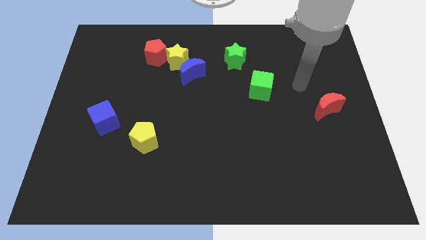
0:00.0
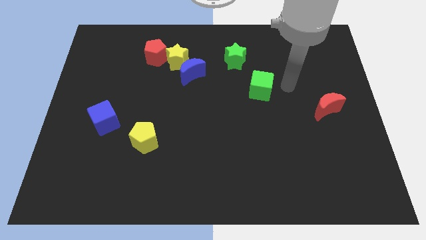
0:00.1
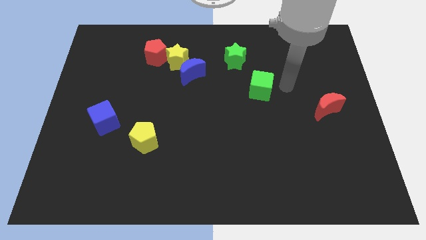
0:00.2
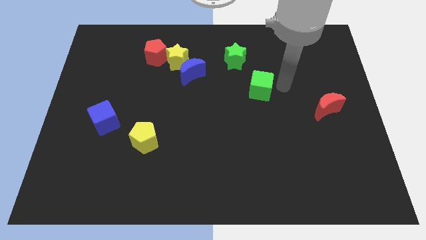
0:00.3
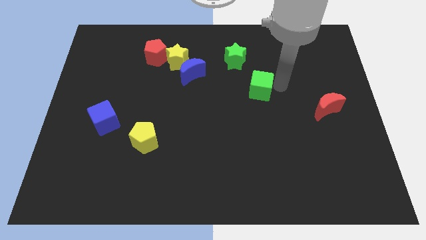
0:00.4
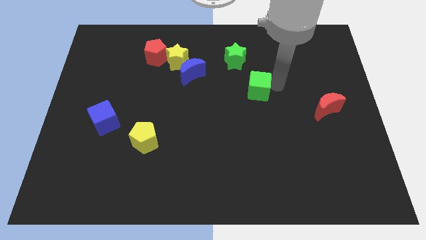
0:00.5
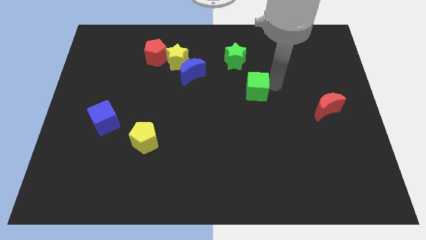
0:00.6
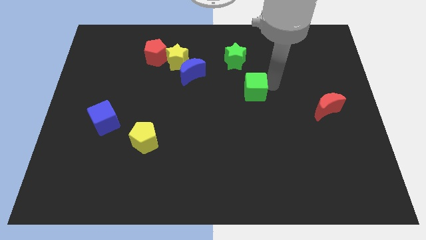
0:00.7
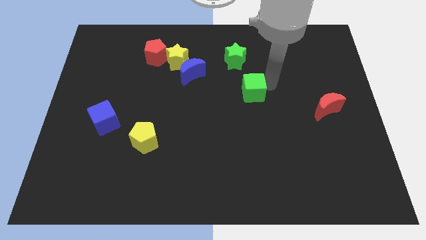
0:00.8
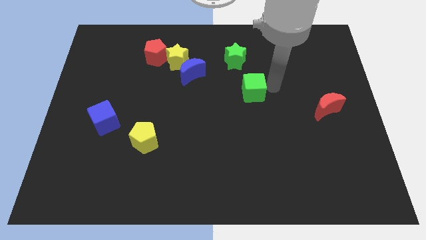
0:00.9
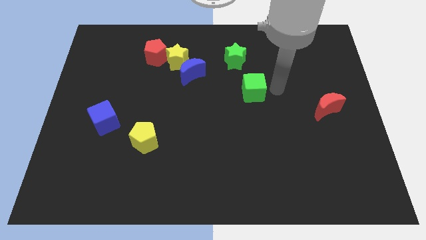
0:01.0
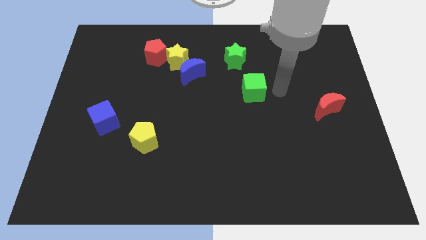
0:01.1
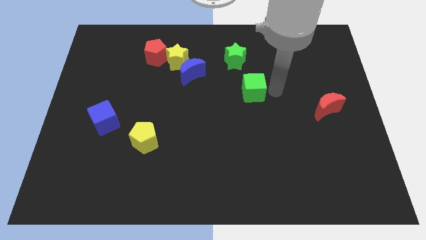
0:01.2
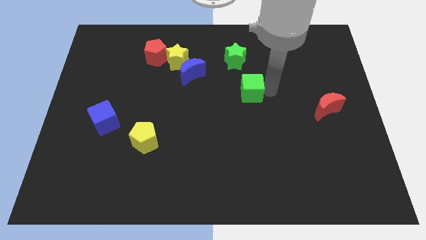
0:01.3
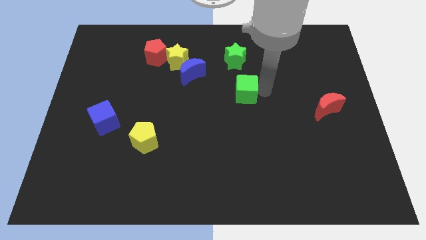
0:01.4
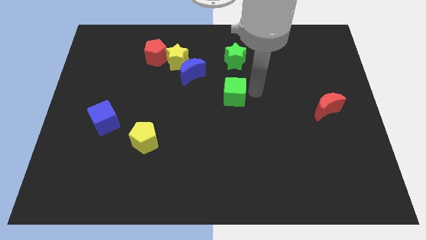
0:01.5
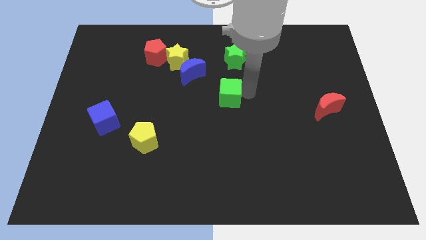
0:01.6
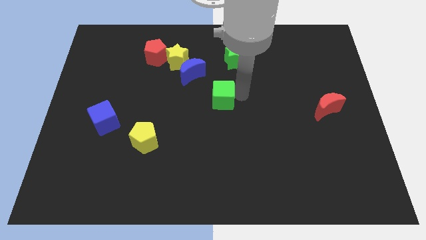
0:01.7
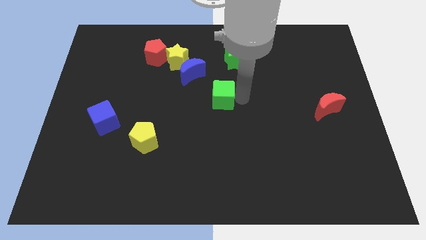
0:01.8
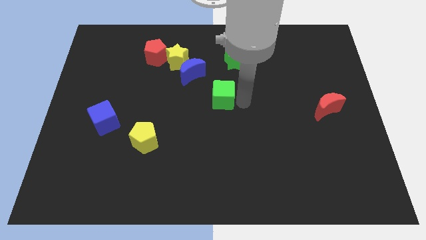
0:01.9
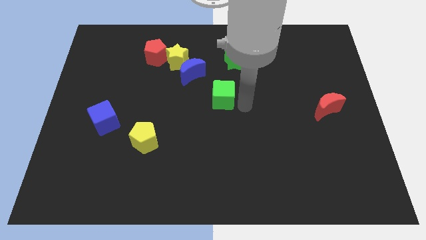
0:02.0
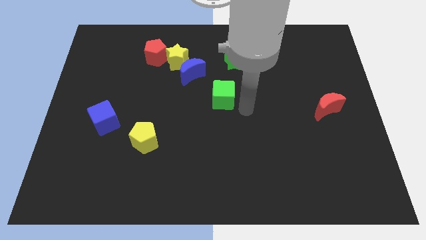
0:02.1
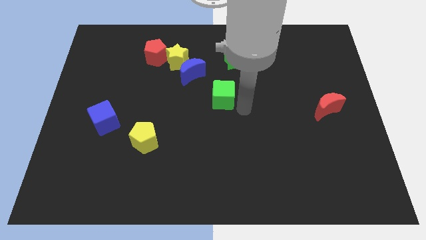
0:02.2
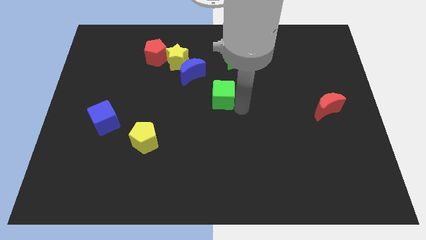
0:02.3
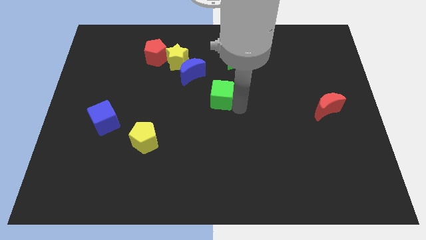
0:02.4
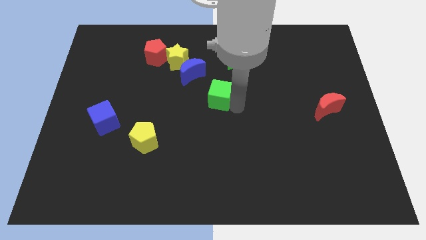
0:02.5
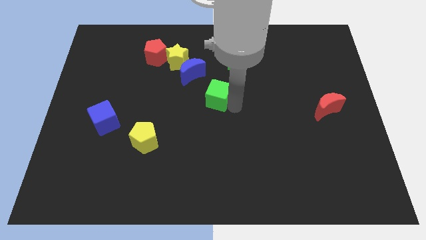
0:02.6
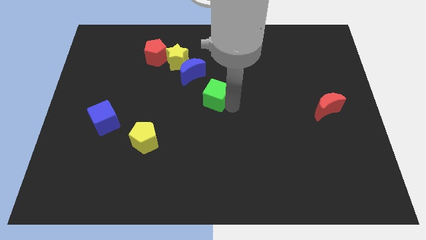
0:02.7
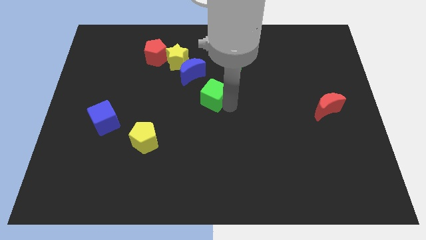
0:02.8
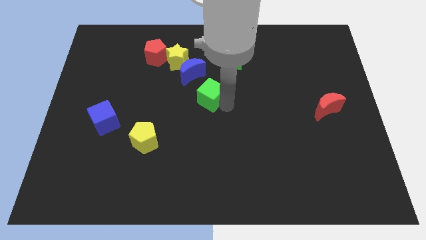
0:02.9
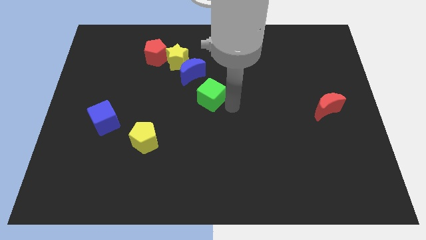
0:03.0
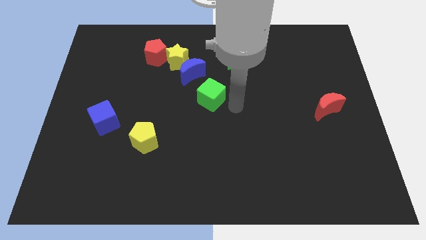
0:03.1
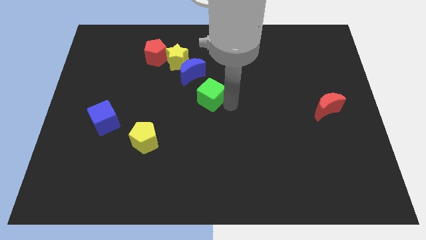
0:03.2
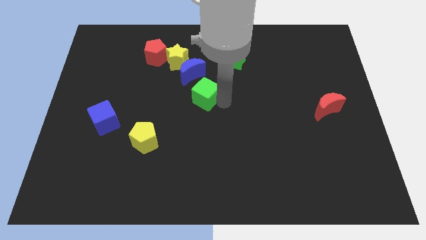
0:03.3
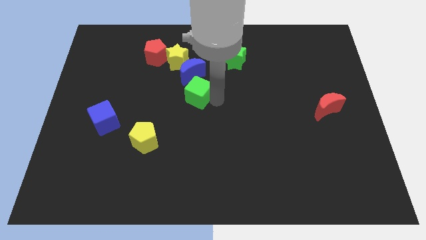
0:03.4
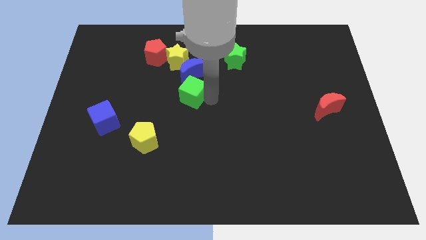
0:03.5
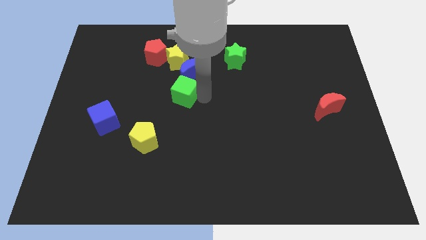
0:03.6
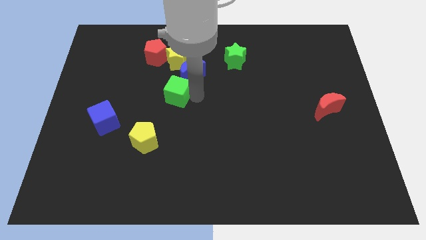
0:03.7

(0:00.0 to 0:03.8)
slide the green cube left

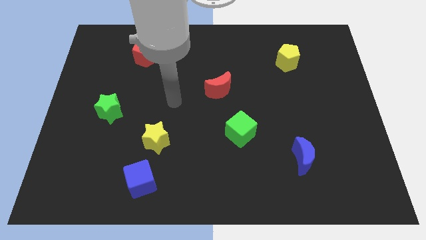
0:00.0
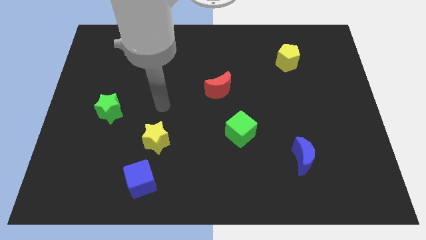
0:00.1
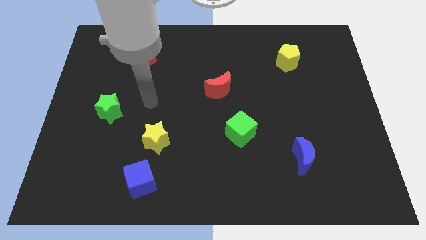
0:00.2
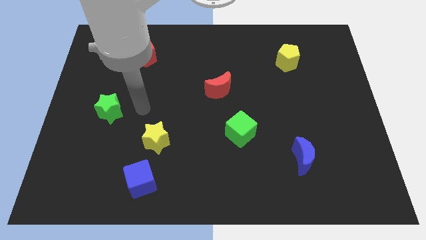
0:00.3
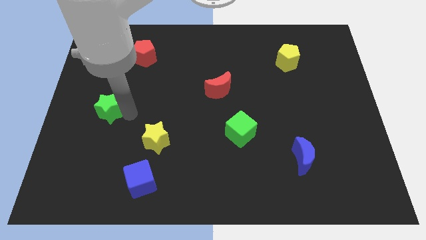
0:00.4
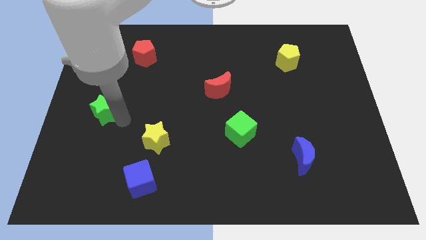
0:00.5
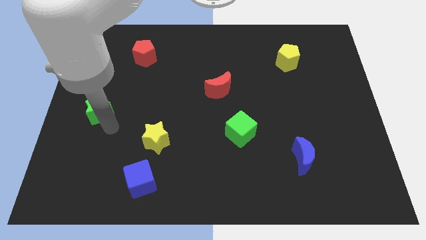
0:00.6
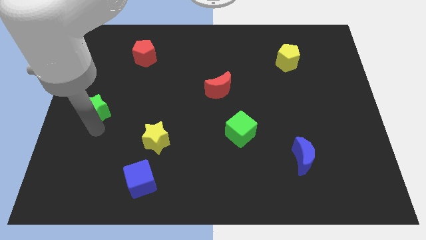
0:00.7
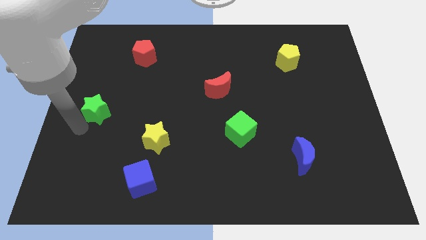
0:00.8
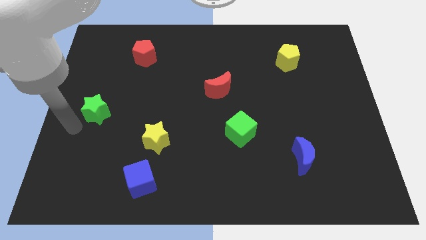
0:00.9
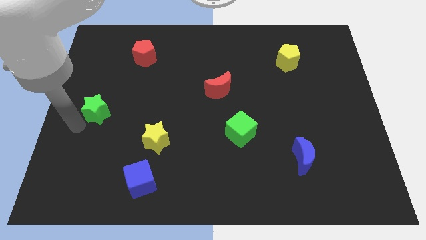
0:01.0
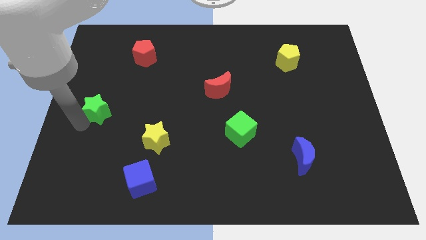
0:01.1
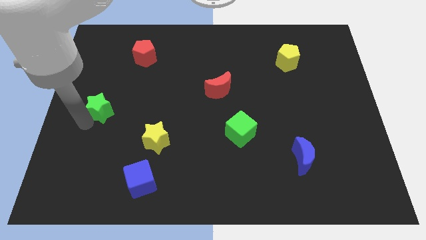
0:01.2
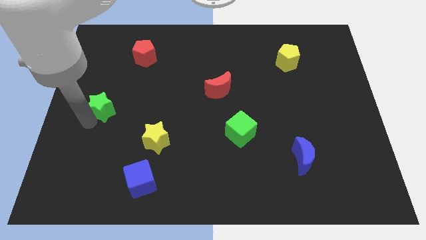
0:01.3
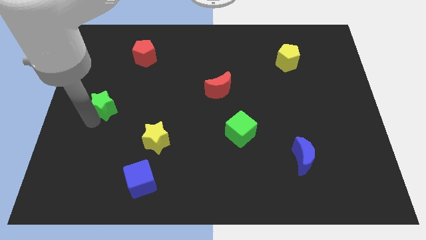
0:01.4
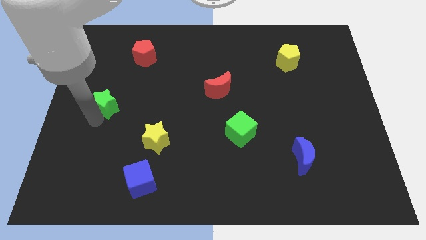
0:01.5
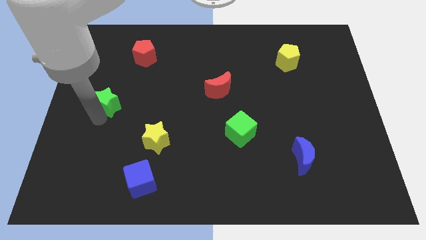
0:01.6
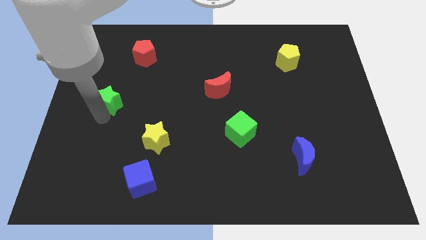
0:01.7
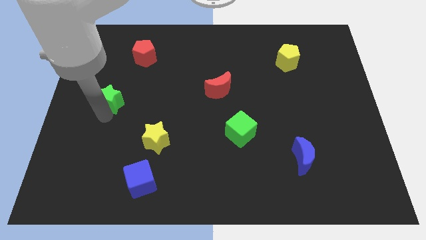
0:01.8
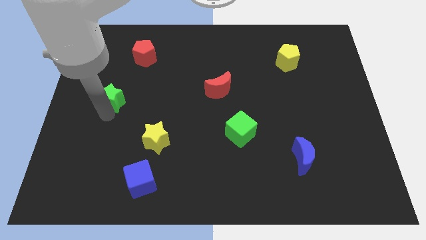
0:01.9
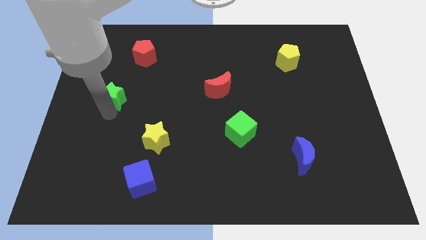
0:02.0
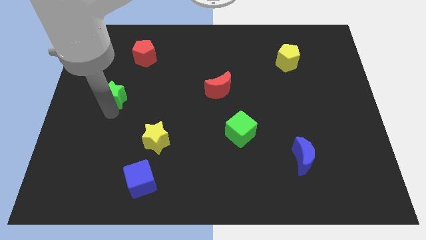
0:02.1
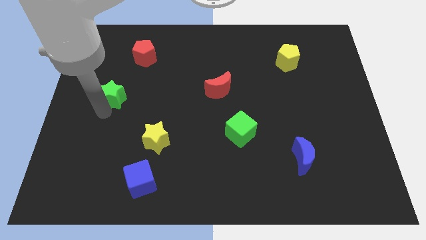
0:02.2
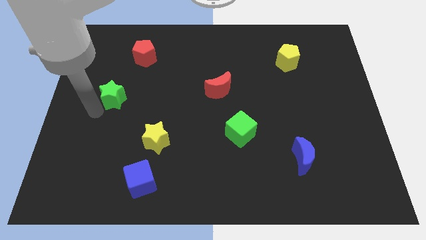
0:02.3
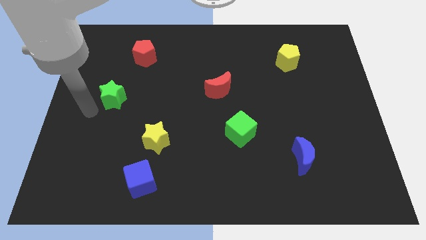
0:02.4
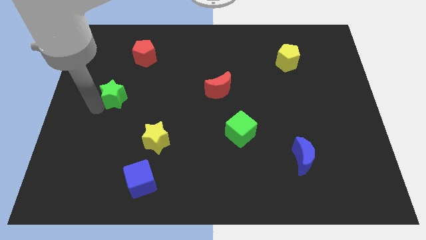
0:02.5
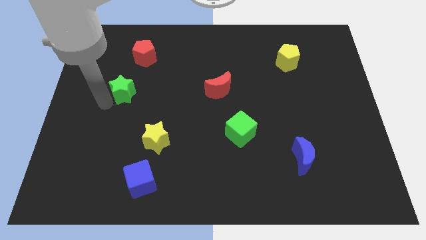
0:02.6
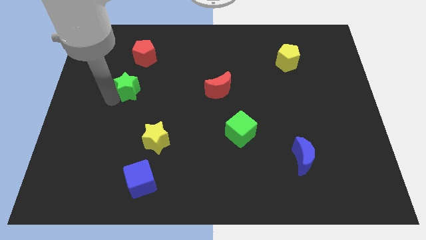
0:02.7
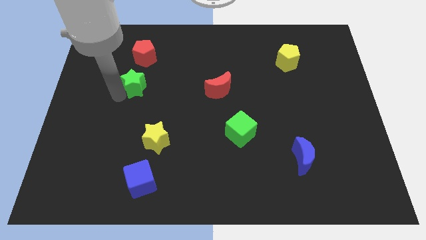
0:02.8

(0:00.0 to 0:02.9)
slide the green star diagonally upwards and right somewhat

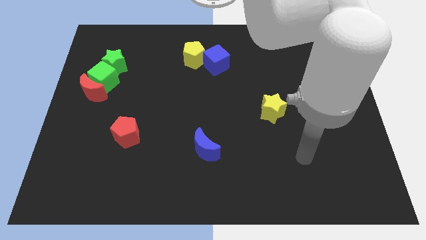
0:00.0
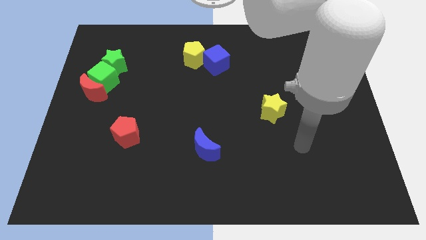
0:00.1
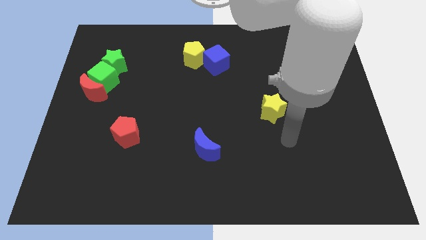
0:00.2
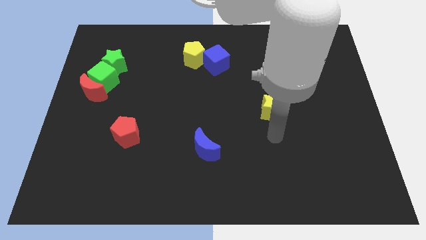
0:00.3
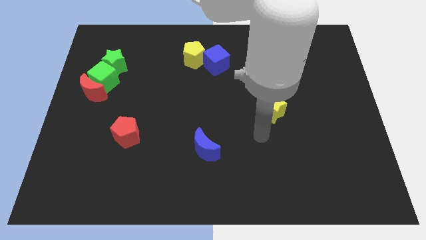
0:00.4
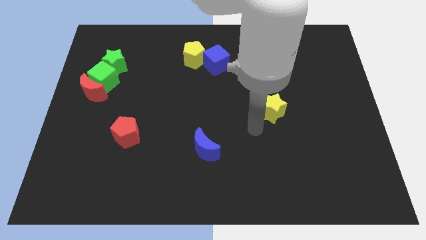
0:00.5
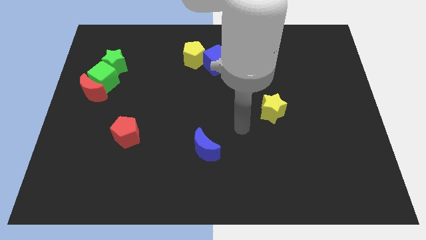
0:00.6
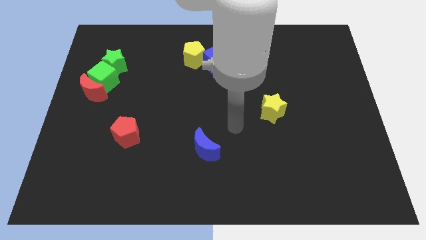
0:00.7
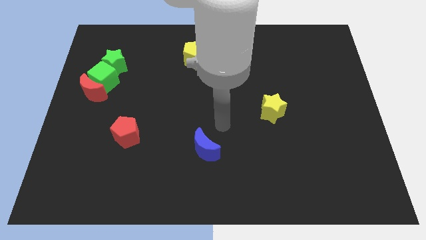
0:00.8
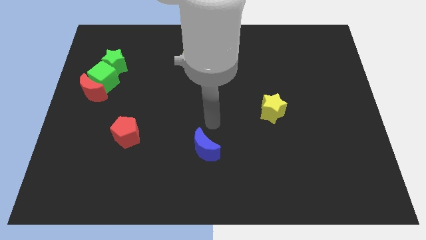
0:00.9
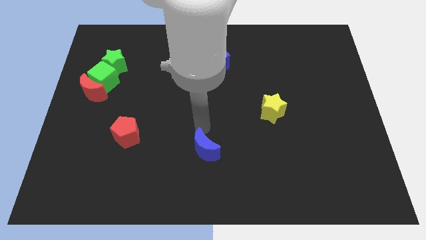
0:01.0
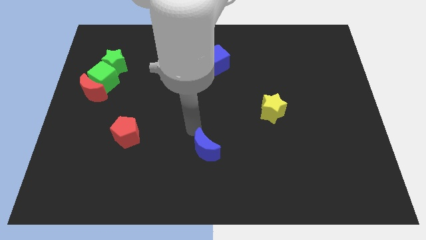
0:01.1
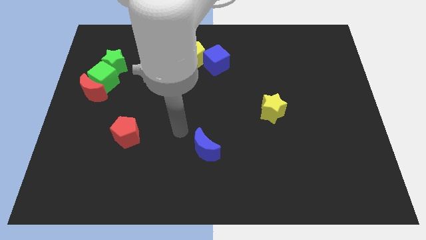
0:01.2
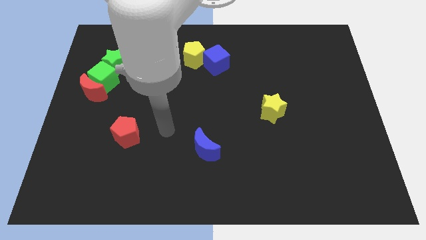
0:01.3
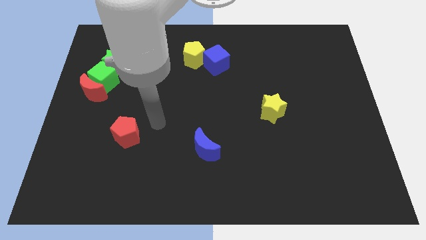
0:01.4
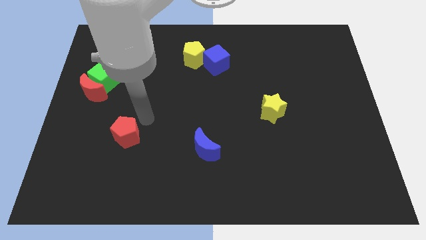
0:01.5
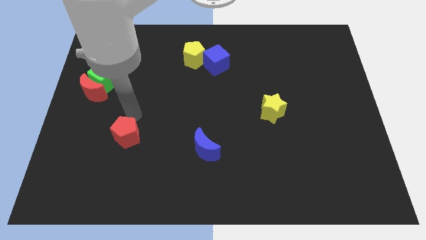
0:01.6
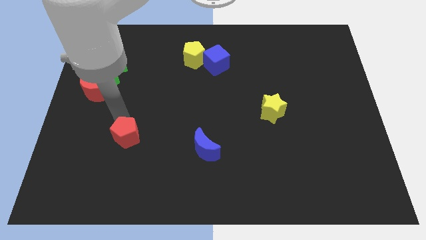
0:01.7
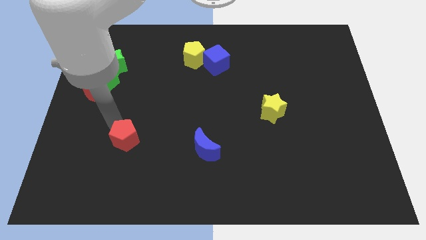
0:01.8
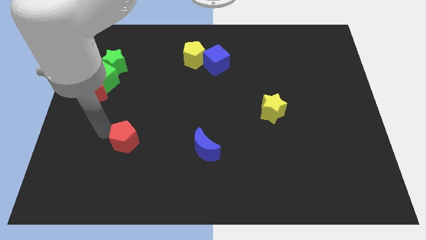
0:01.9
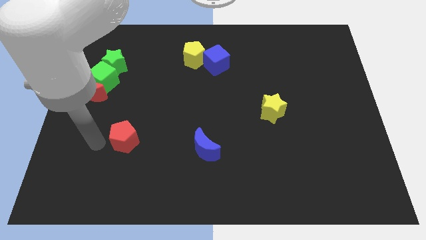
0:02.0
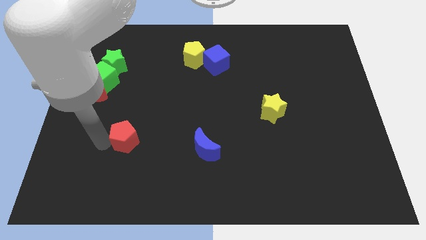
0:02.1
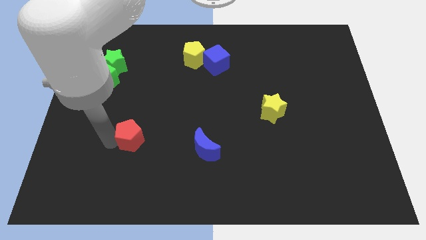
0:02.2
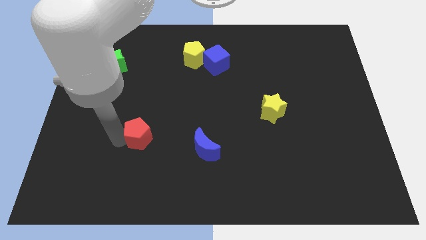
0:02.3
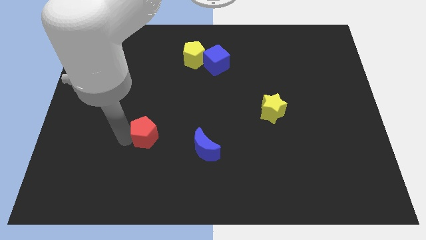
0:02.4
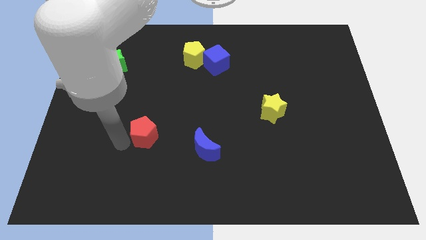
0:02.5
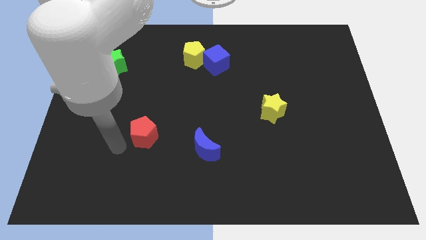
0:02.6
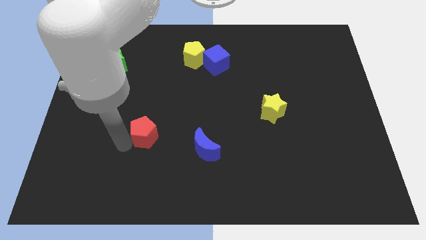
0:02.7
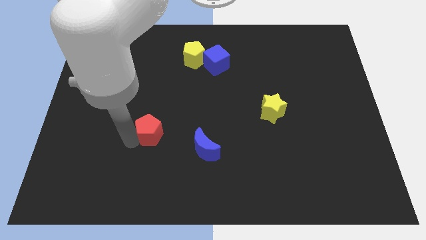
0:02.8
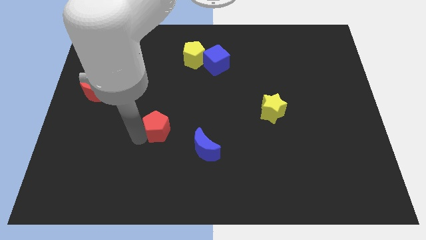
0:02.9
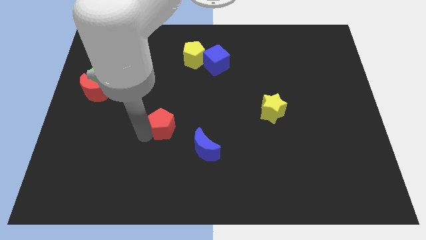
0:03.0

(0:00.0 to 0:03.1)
move the red pentagon right a little bit
